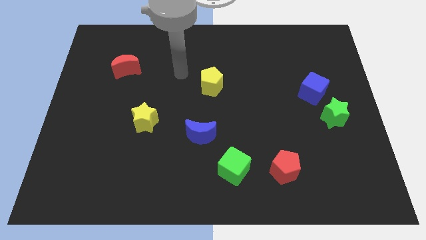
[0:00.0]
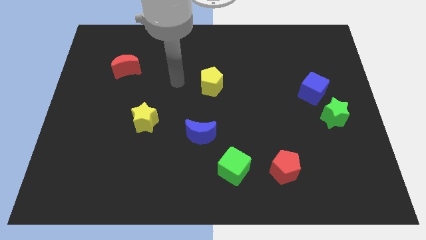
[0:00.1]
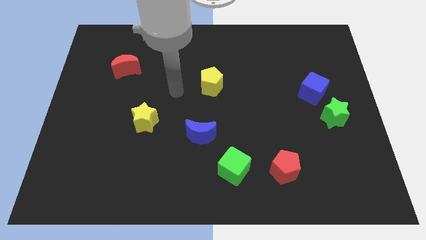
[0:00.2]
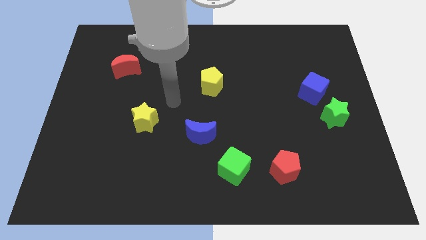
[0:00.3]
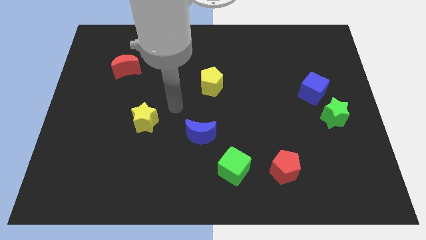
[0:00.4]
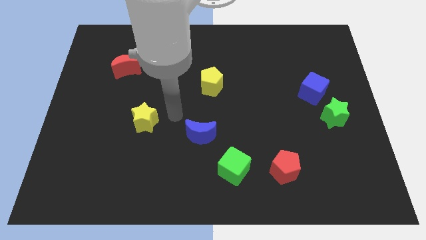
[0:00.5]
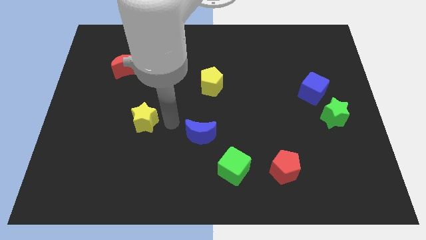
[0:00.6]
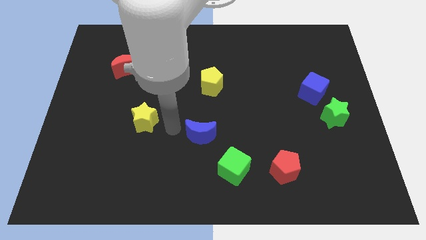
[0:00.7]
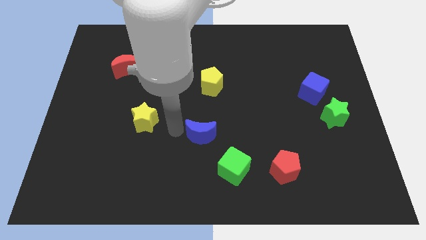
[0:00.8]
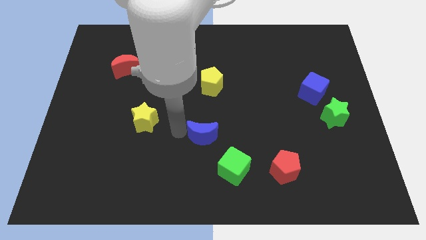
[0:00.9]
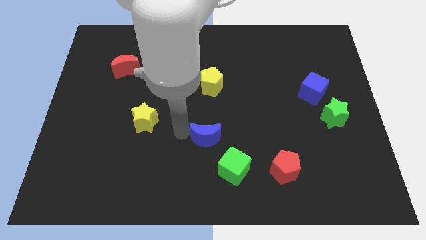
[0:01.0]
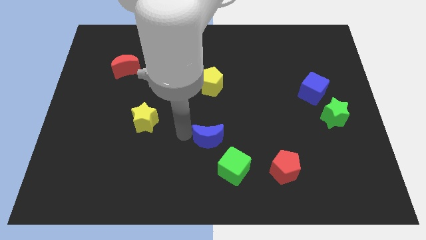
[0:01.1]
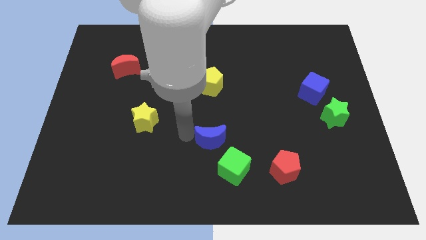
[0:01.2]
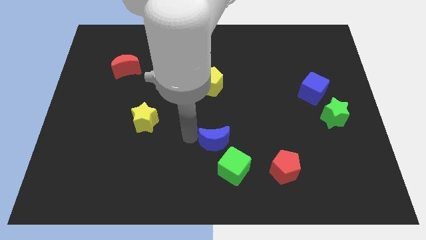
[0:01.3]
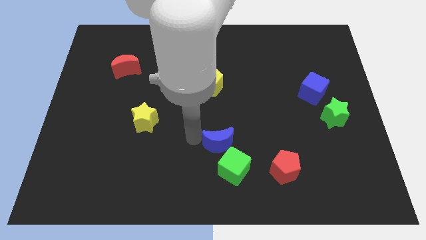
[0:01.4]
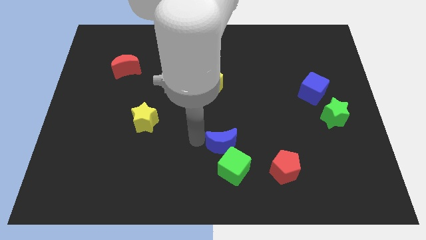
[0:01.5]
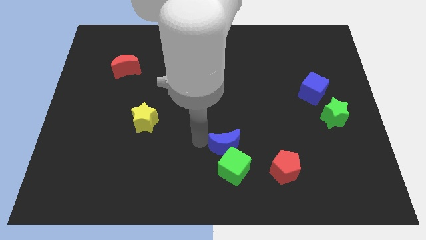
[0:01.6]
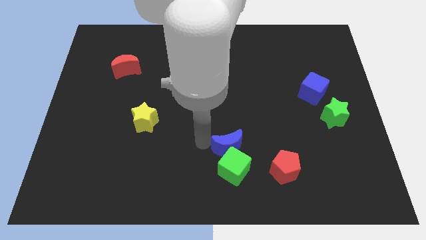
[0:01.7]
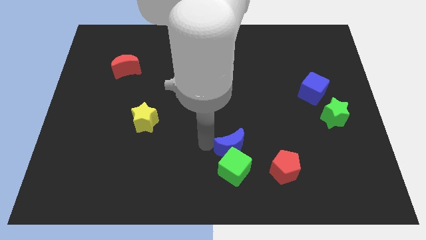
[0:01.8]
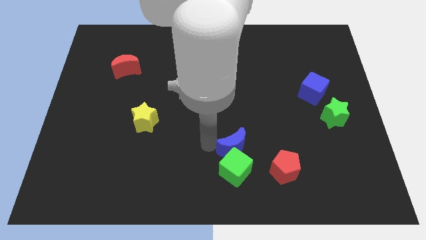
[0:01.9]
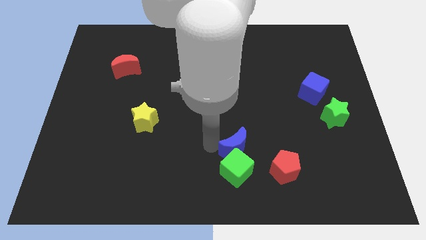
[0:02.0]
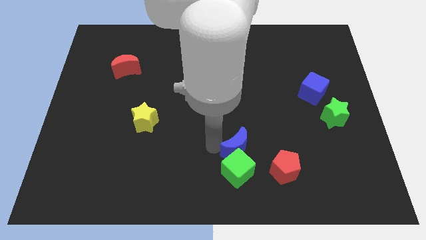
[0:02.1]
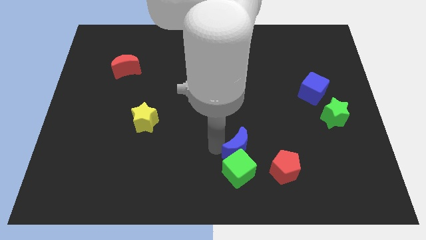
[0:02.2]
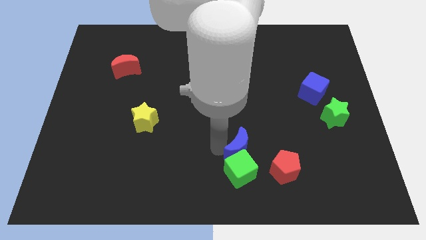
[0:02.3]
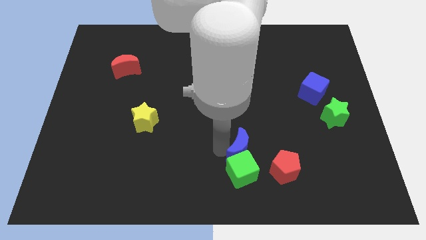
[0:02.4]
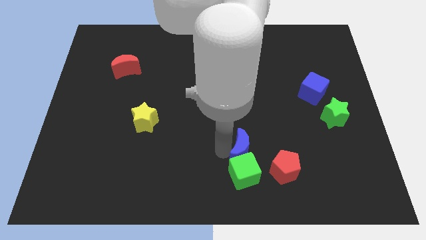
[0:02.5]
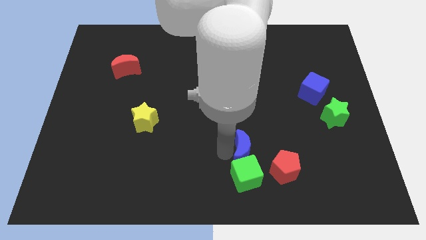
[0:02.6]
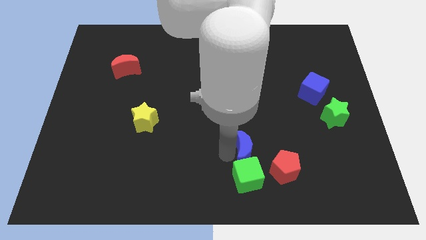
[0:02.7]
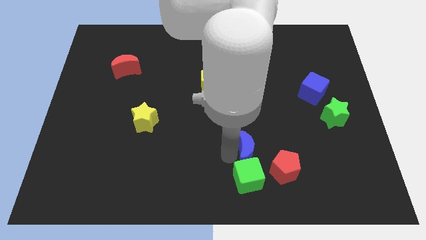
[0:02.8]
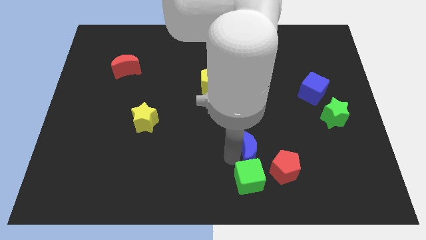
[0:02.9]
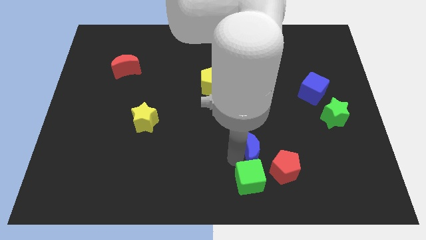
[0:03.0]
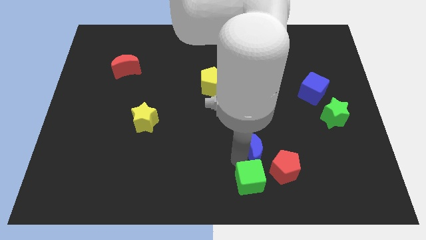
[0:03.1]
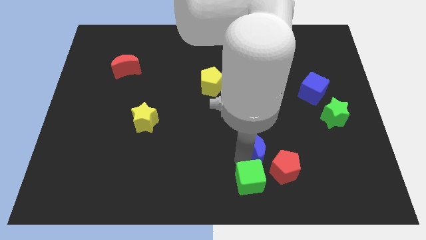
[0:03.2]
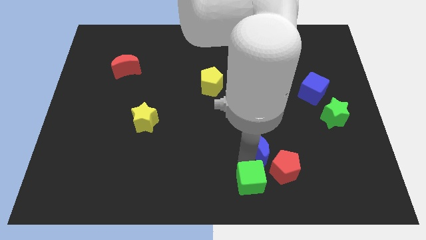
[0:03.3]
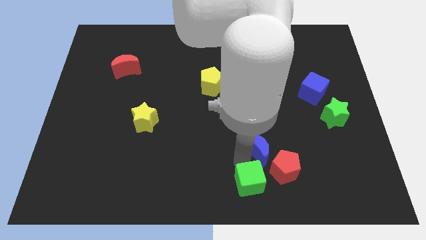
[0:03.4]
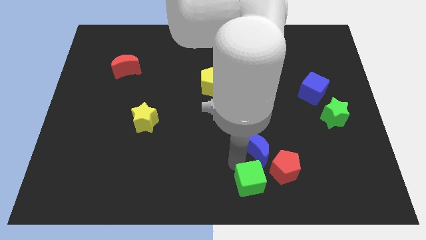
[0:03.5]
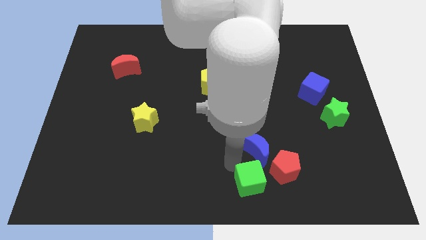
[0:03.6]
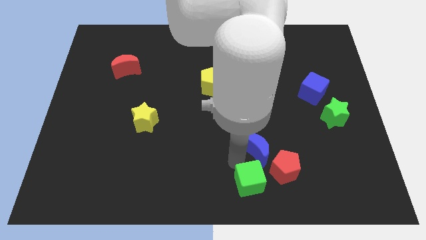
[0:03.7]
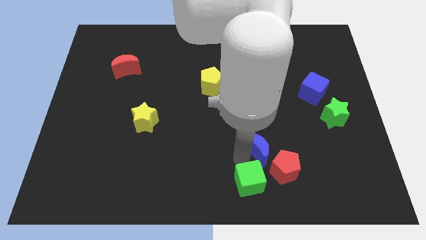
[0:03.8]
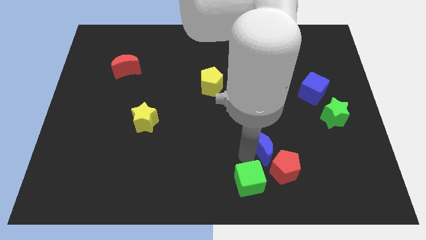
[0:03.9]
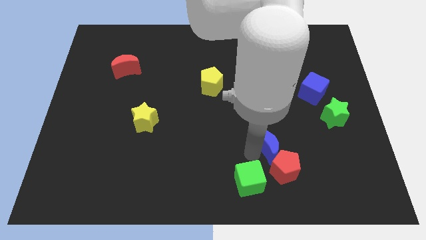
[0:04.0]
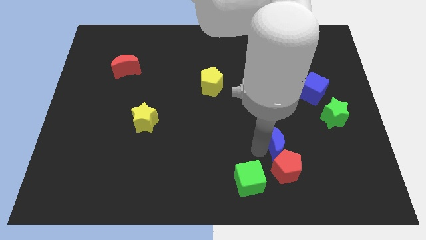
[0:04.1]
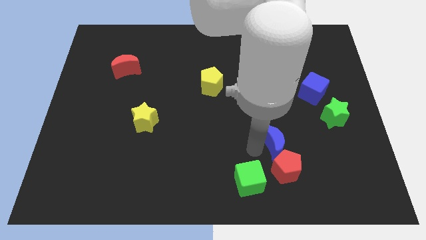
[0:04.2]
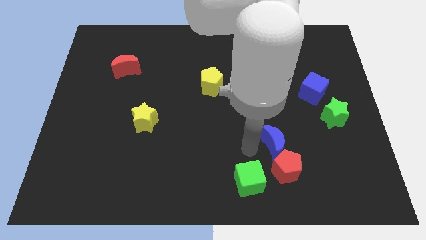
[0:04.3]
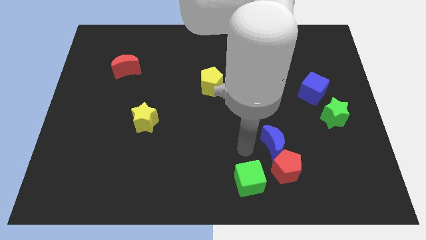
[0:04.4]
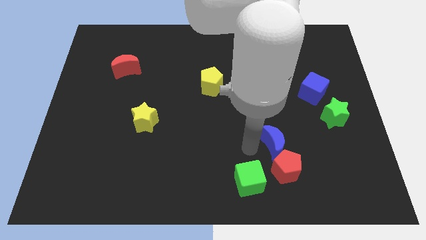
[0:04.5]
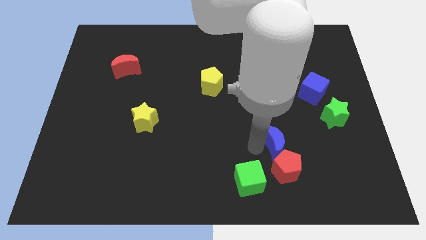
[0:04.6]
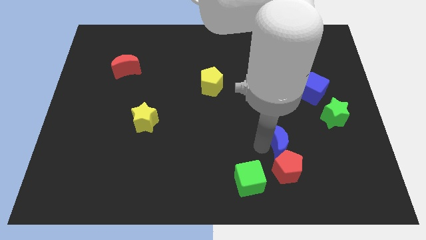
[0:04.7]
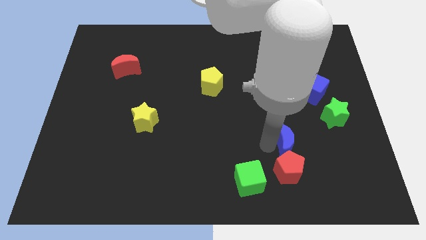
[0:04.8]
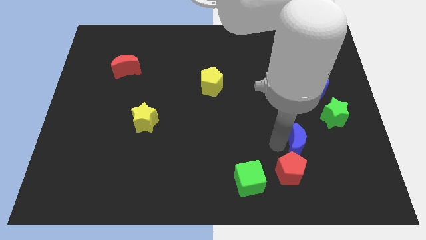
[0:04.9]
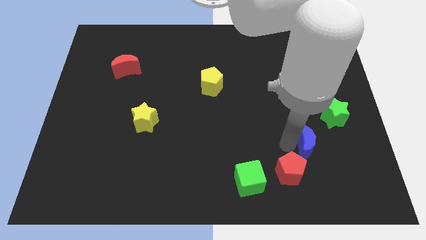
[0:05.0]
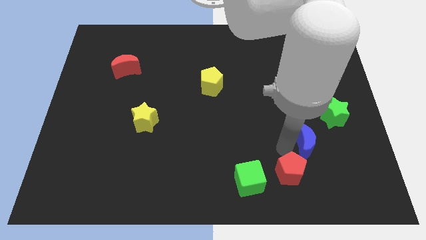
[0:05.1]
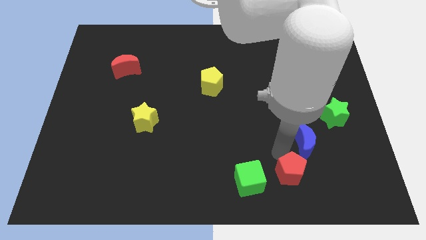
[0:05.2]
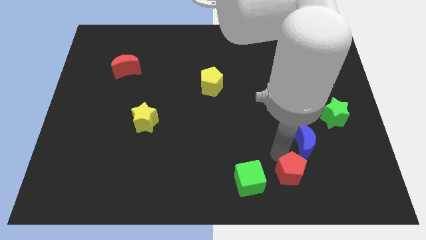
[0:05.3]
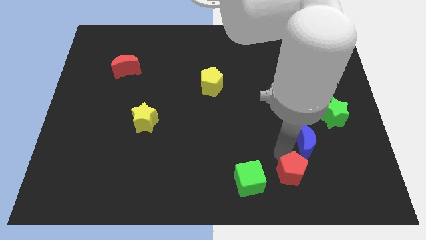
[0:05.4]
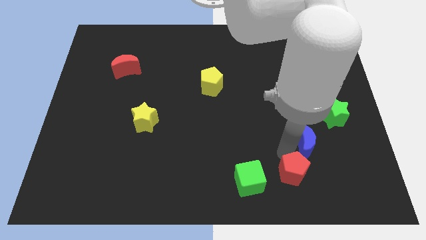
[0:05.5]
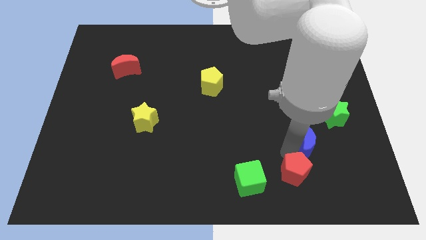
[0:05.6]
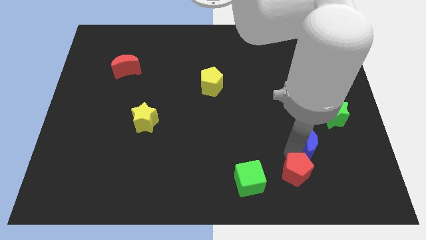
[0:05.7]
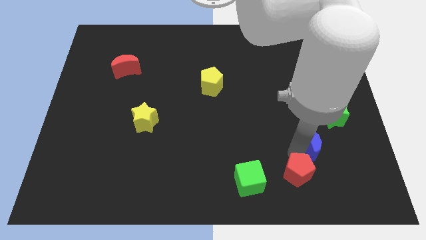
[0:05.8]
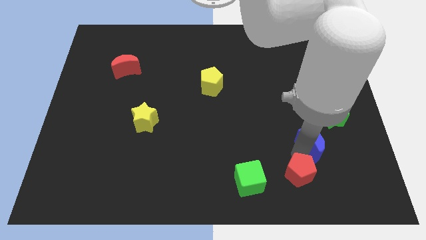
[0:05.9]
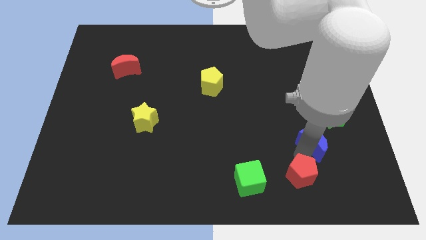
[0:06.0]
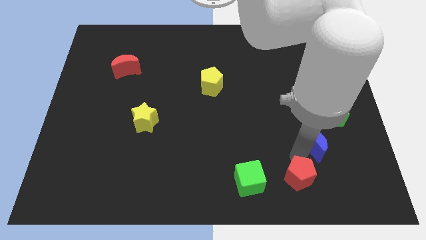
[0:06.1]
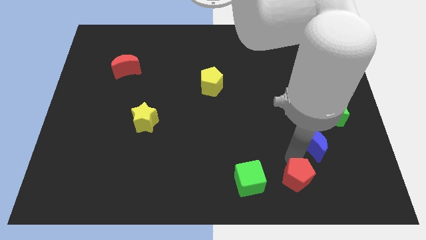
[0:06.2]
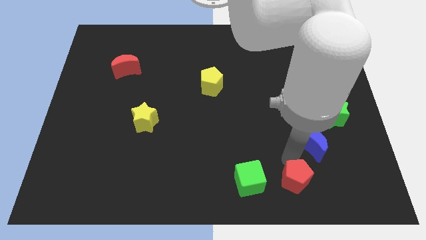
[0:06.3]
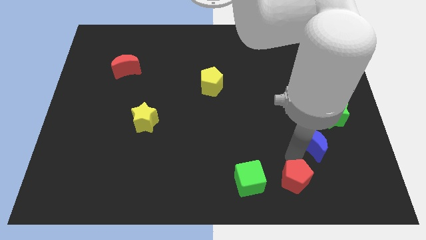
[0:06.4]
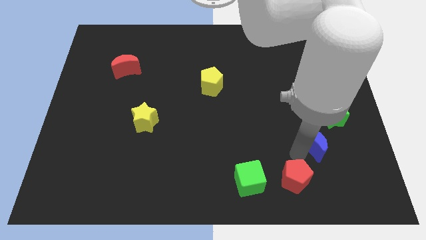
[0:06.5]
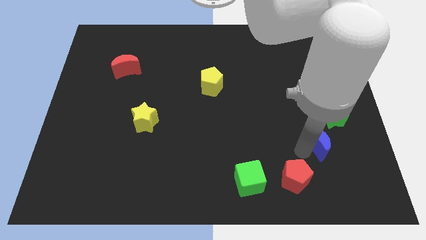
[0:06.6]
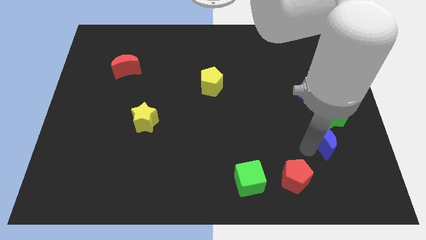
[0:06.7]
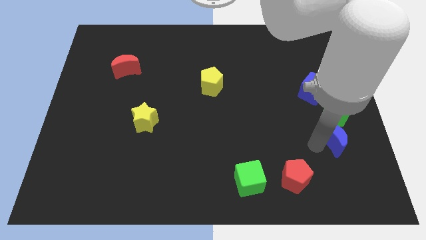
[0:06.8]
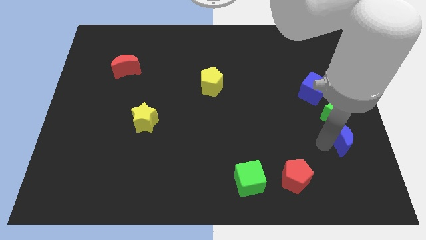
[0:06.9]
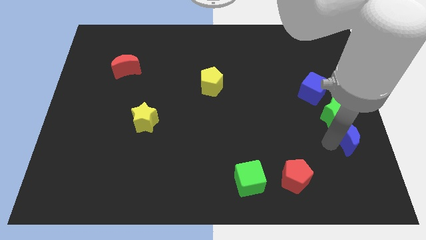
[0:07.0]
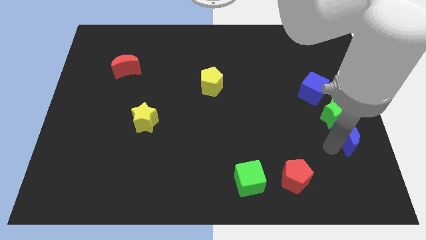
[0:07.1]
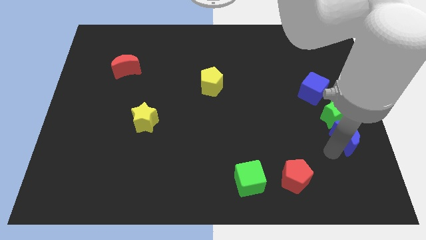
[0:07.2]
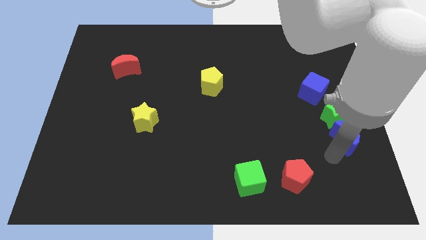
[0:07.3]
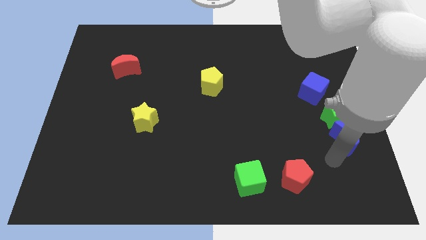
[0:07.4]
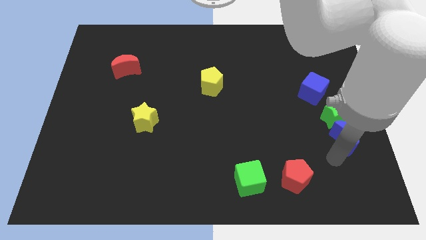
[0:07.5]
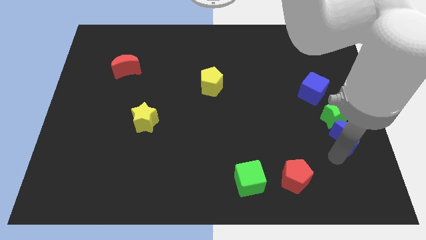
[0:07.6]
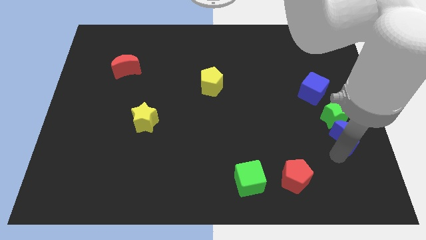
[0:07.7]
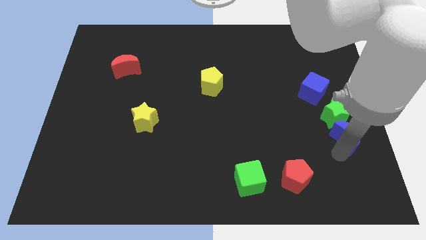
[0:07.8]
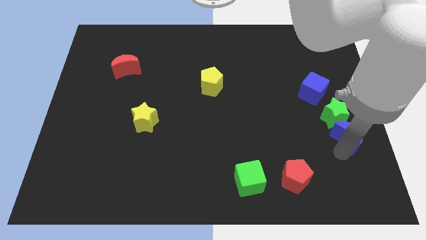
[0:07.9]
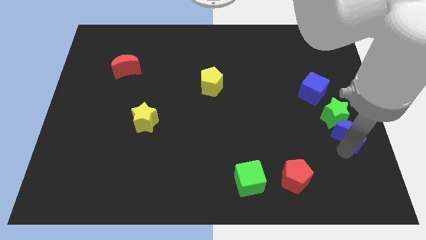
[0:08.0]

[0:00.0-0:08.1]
move the blue moon to the right side
